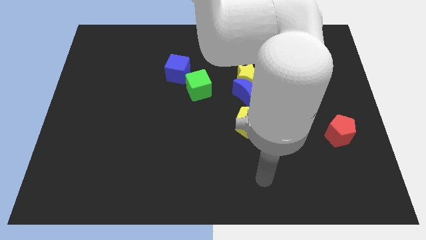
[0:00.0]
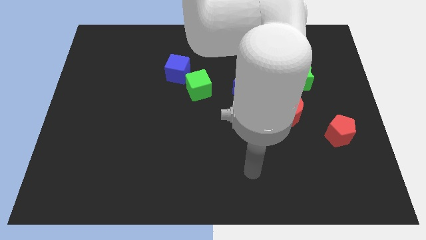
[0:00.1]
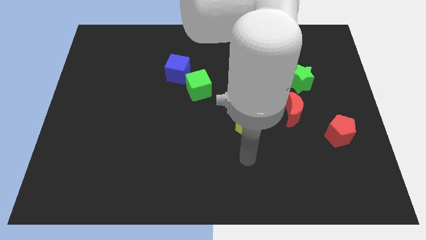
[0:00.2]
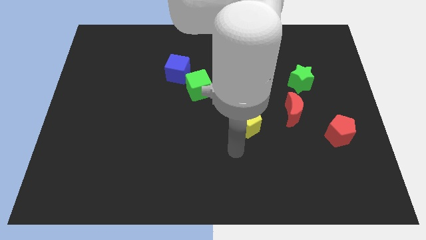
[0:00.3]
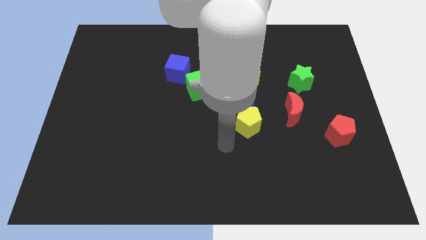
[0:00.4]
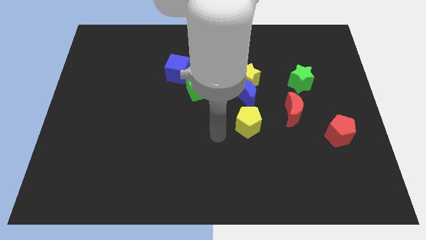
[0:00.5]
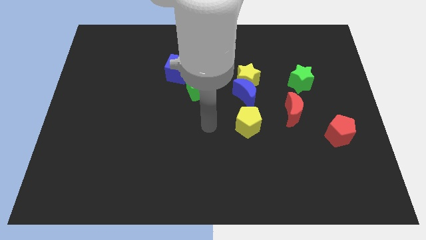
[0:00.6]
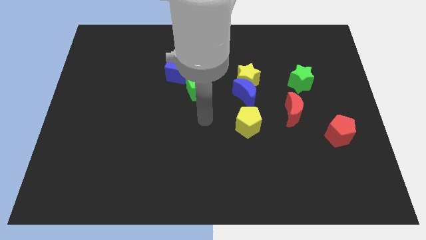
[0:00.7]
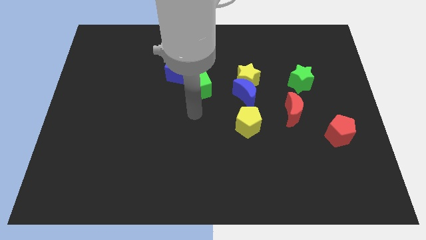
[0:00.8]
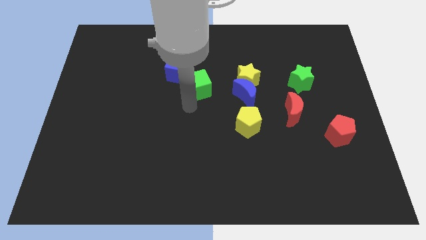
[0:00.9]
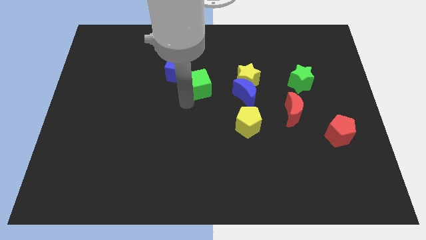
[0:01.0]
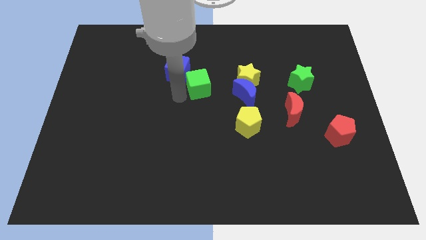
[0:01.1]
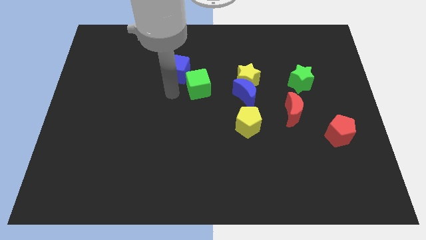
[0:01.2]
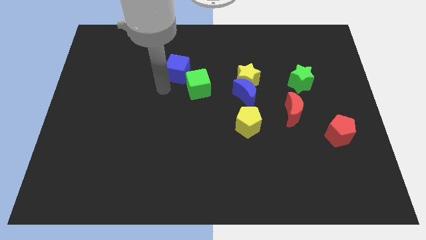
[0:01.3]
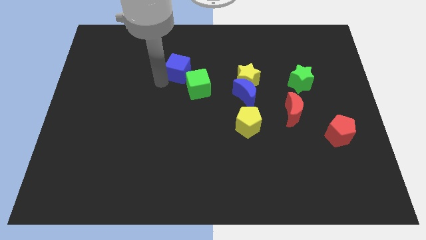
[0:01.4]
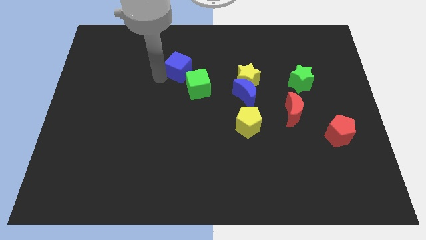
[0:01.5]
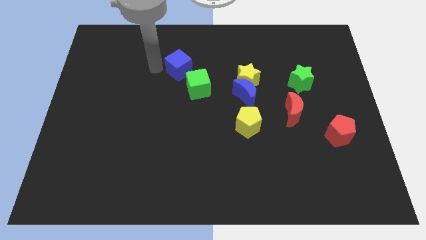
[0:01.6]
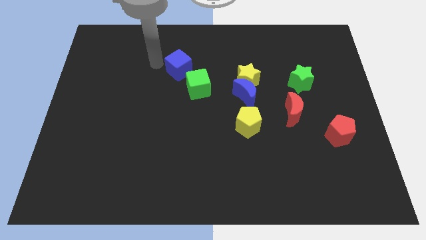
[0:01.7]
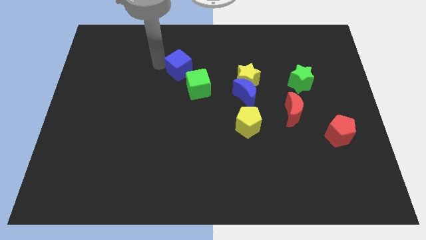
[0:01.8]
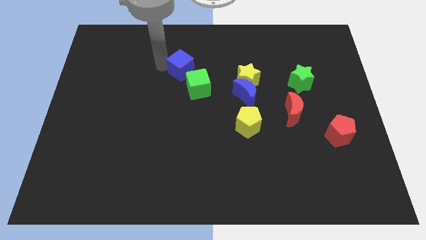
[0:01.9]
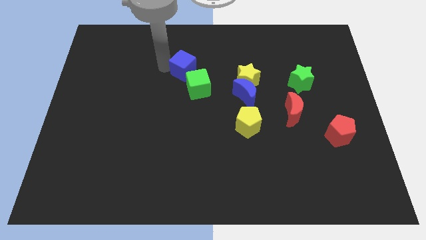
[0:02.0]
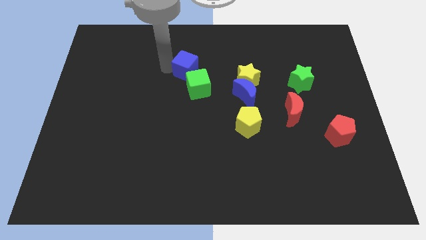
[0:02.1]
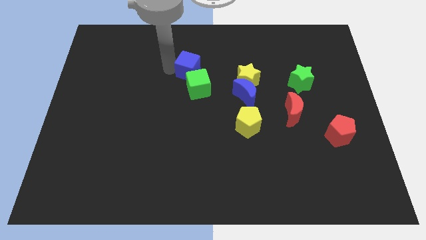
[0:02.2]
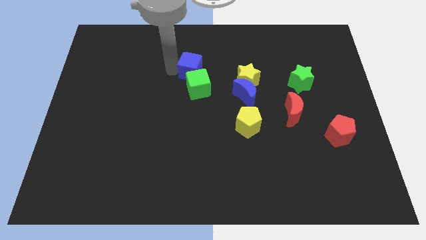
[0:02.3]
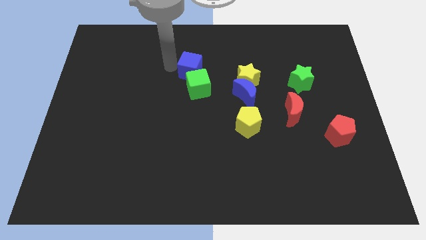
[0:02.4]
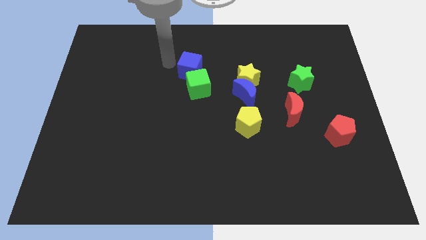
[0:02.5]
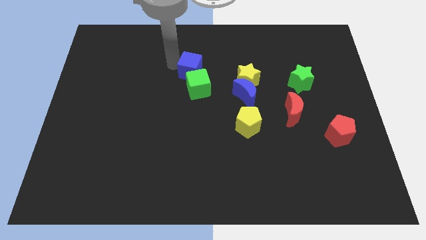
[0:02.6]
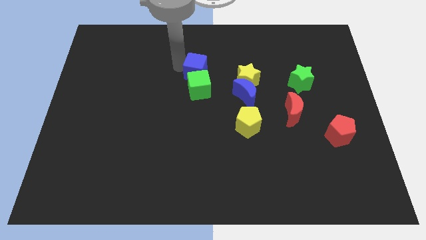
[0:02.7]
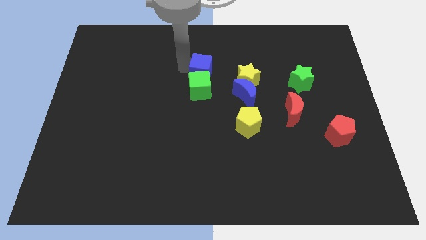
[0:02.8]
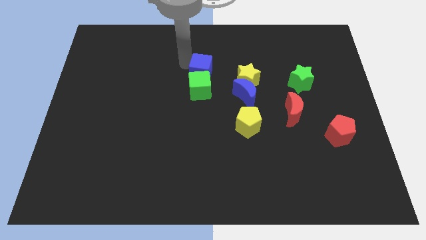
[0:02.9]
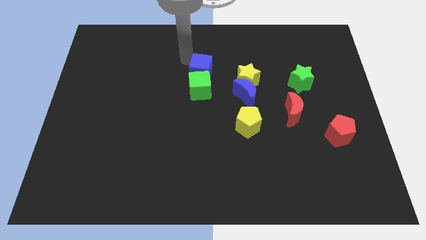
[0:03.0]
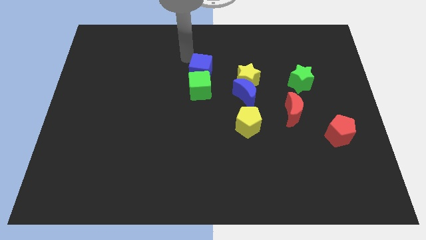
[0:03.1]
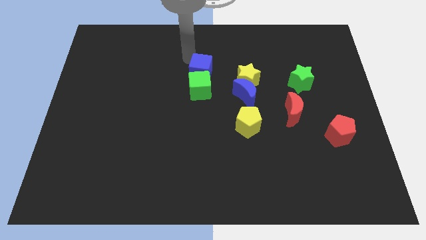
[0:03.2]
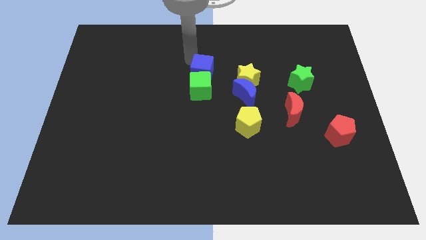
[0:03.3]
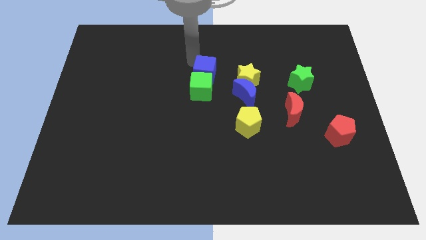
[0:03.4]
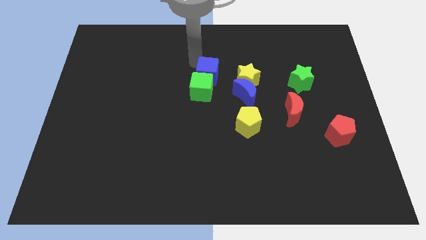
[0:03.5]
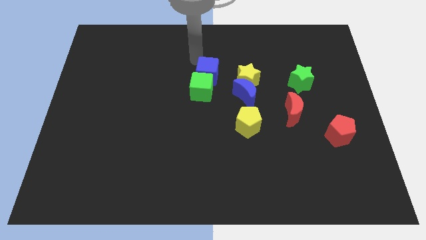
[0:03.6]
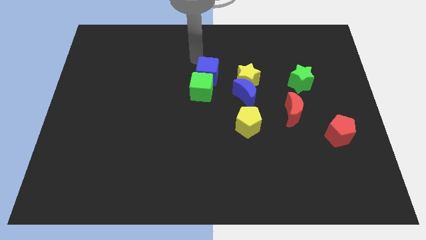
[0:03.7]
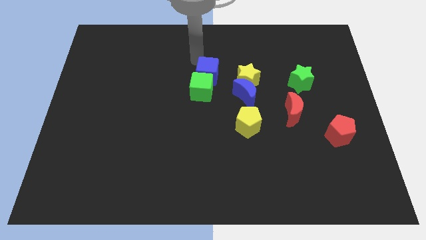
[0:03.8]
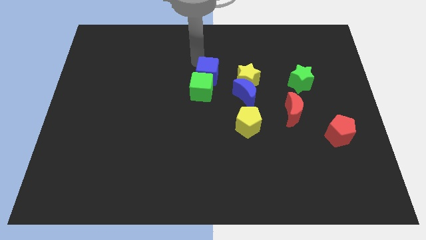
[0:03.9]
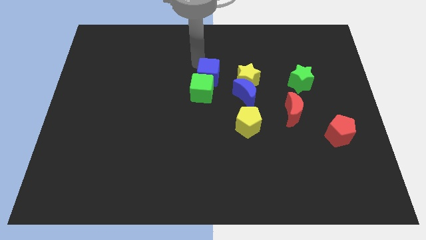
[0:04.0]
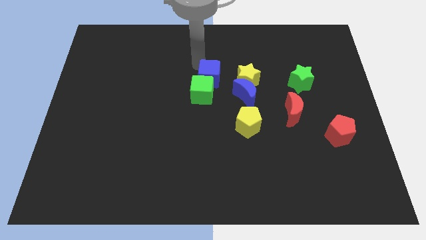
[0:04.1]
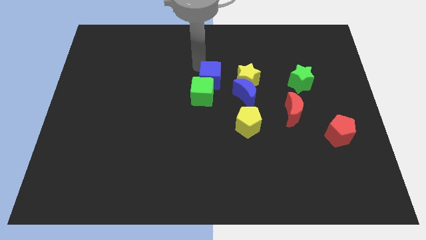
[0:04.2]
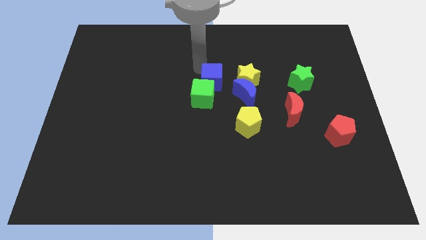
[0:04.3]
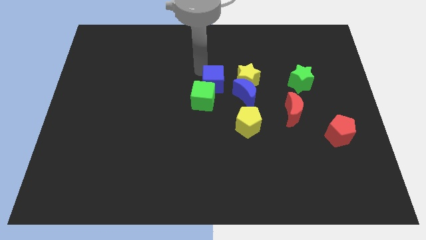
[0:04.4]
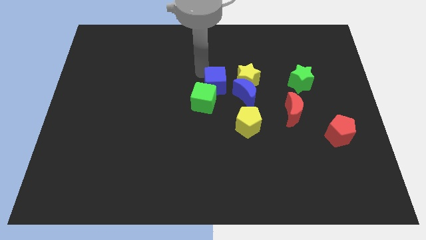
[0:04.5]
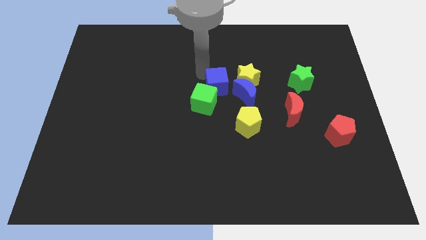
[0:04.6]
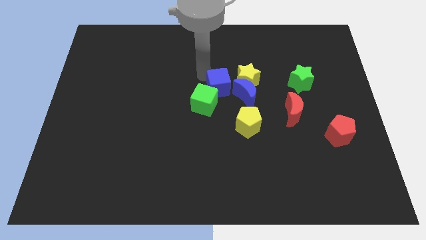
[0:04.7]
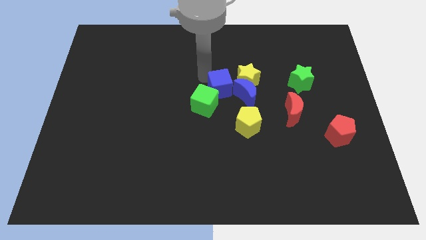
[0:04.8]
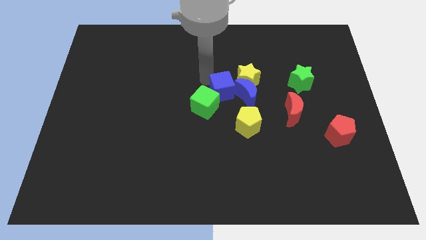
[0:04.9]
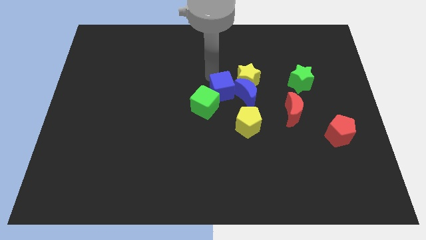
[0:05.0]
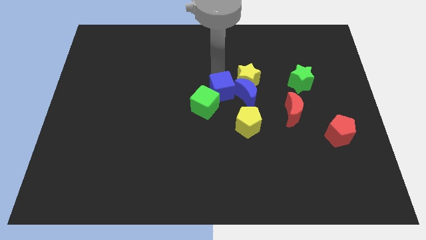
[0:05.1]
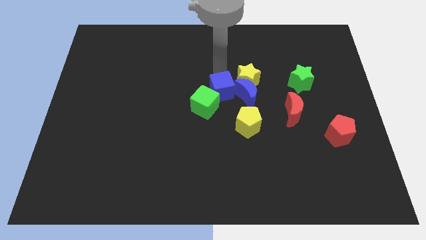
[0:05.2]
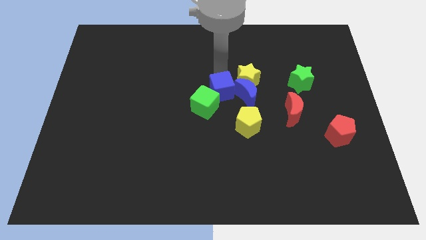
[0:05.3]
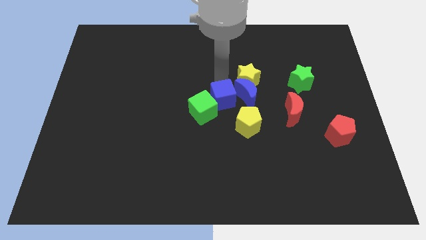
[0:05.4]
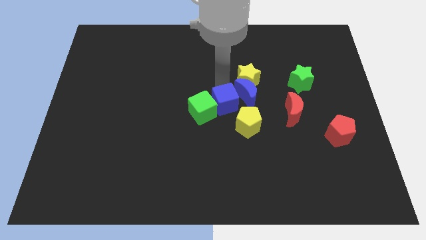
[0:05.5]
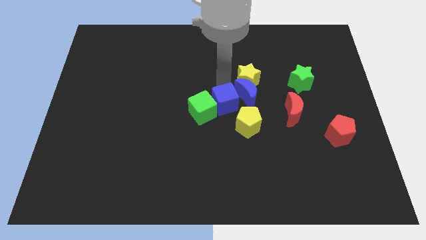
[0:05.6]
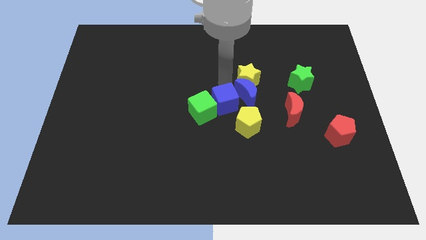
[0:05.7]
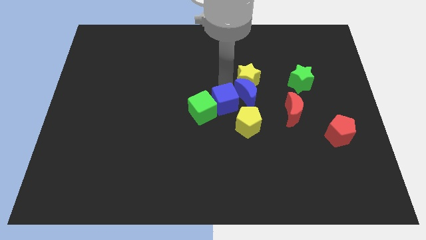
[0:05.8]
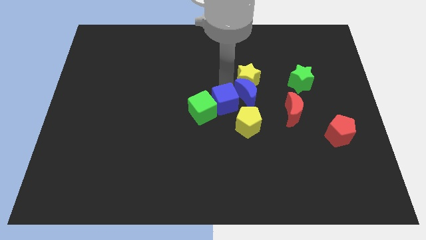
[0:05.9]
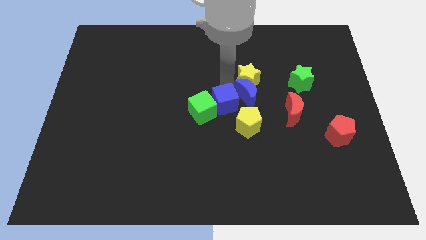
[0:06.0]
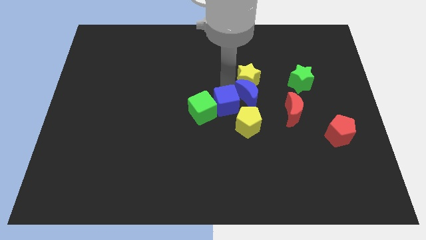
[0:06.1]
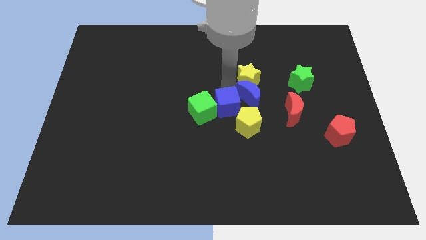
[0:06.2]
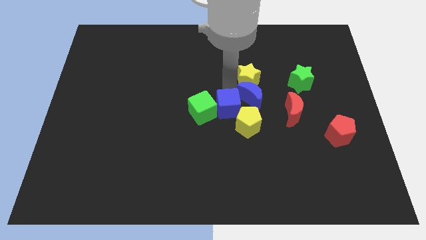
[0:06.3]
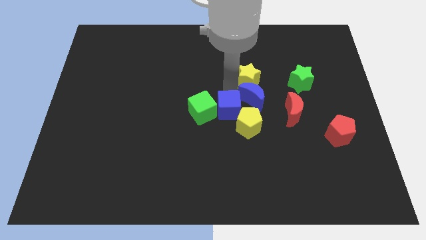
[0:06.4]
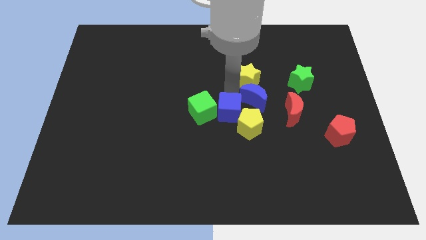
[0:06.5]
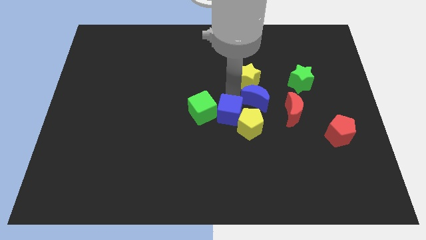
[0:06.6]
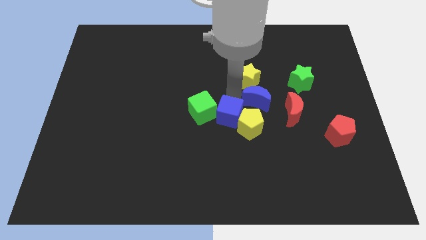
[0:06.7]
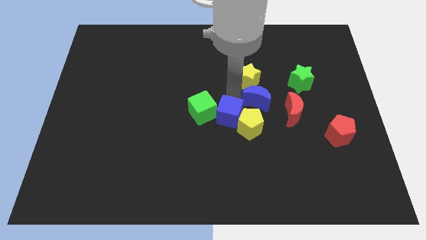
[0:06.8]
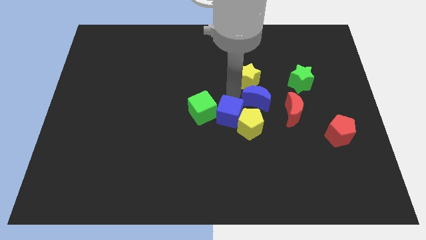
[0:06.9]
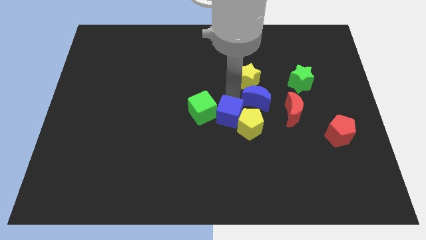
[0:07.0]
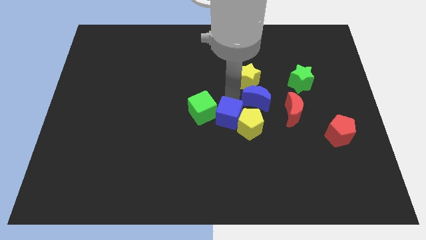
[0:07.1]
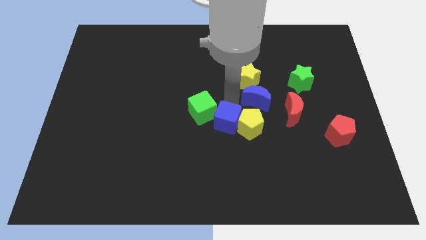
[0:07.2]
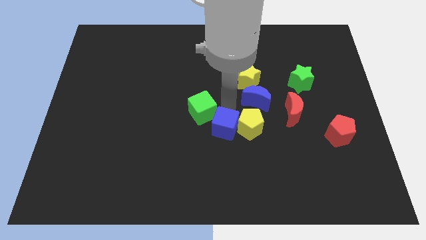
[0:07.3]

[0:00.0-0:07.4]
slide the blue cube down and to the right

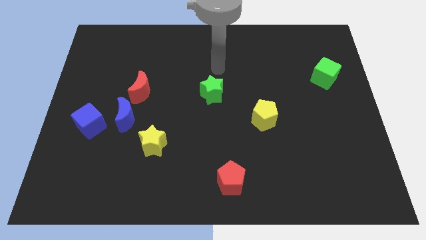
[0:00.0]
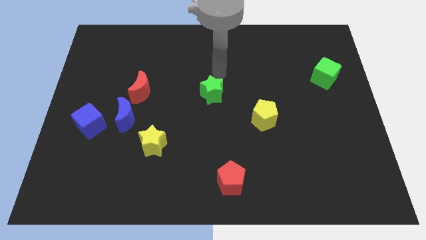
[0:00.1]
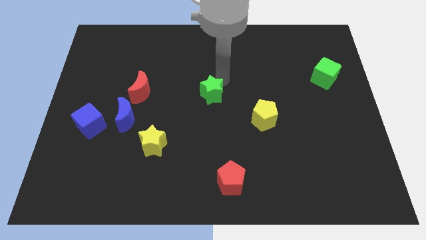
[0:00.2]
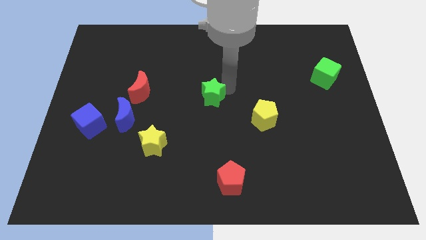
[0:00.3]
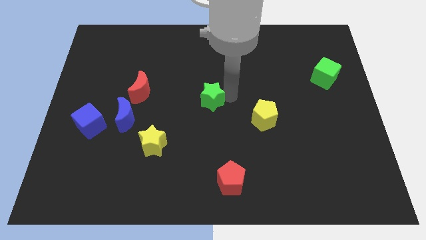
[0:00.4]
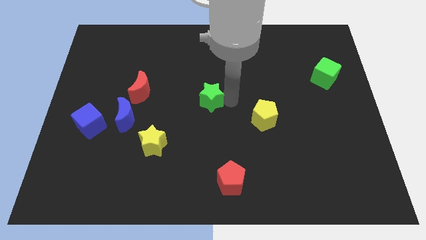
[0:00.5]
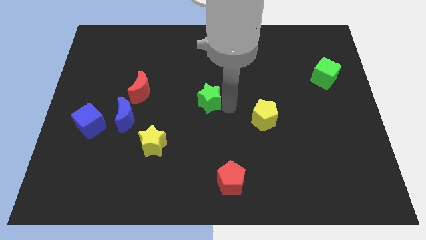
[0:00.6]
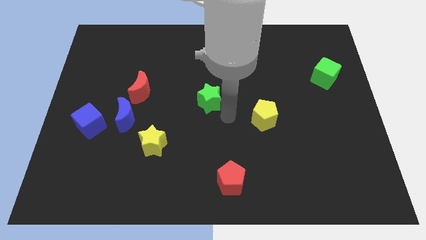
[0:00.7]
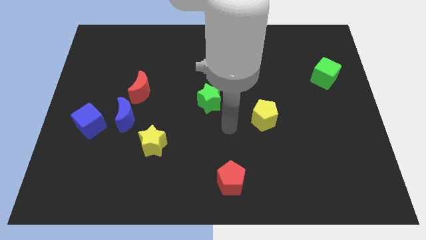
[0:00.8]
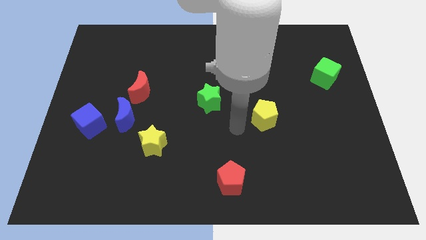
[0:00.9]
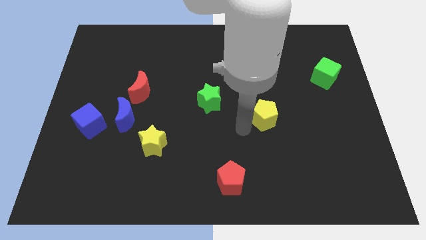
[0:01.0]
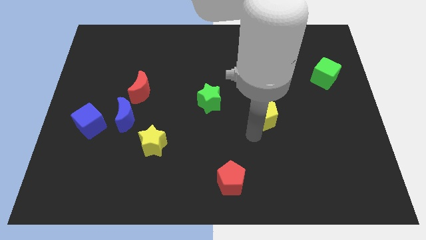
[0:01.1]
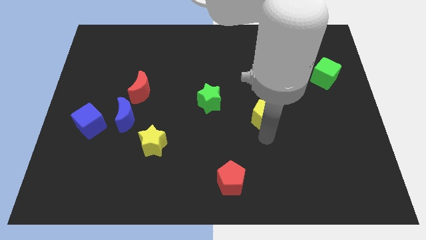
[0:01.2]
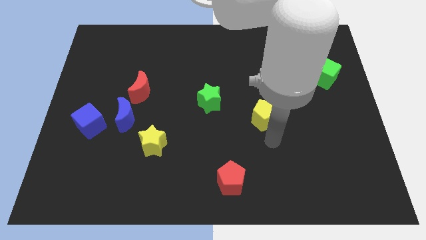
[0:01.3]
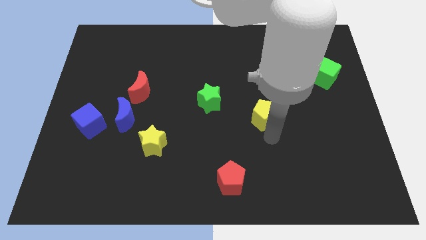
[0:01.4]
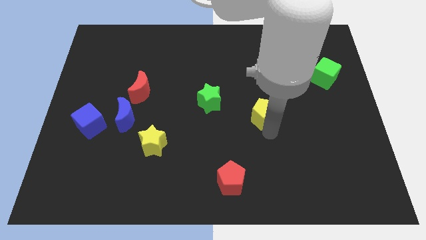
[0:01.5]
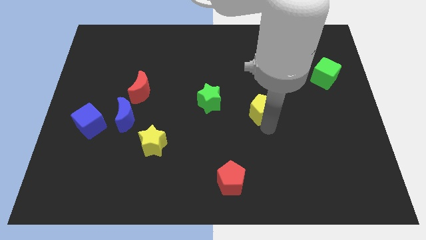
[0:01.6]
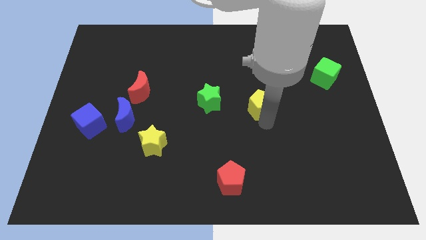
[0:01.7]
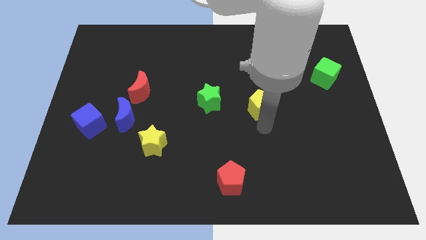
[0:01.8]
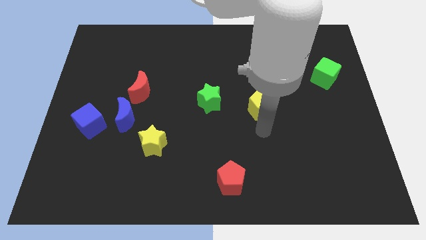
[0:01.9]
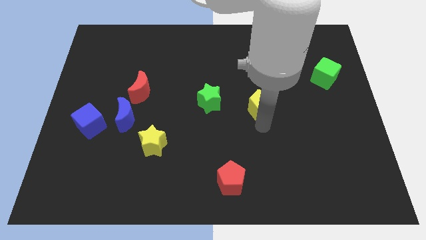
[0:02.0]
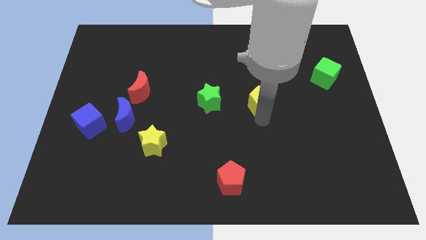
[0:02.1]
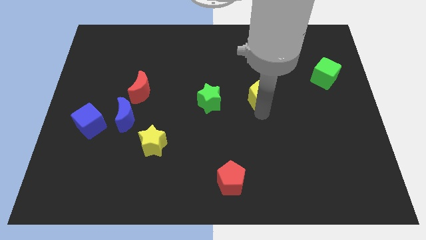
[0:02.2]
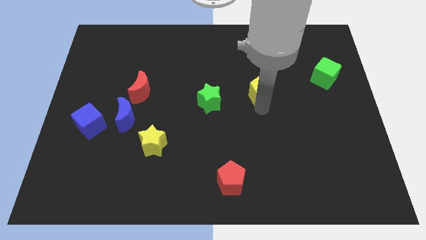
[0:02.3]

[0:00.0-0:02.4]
slightly move the yellow pentagon up
